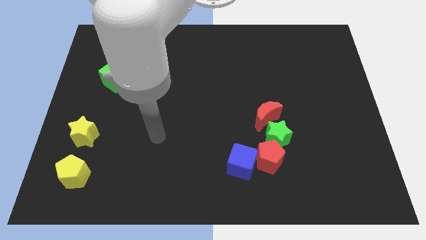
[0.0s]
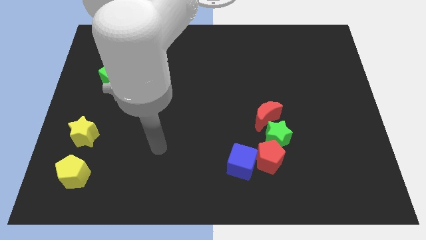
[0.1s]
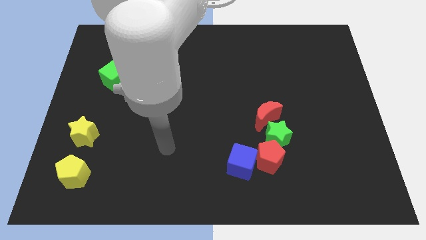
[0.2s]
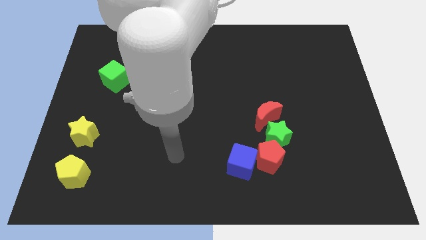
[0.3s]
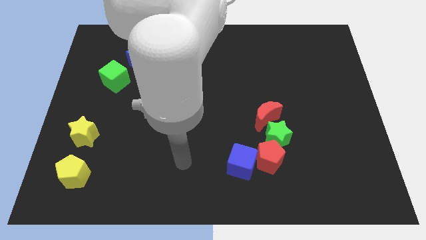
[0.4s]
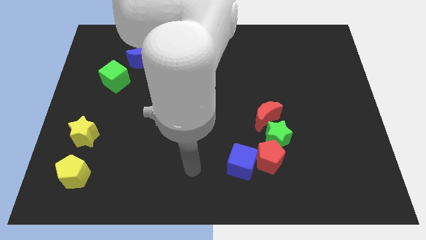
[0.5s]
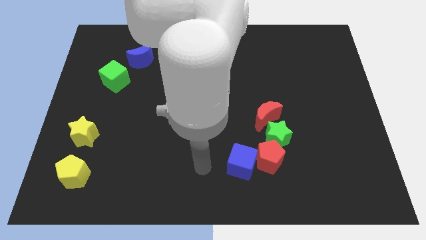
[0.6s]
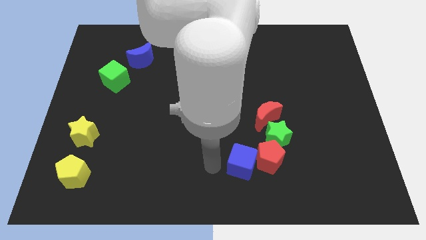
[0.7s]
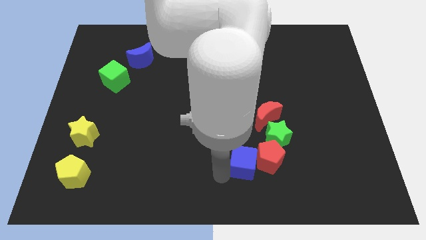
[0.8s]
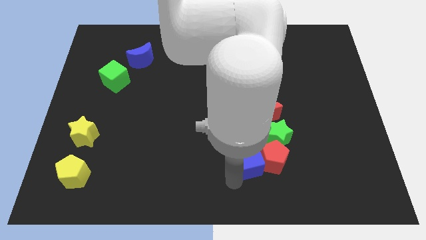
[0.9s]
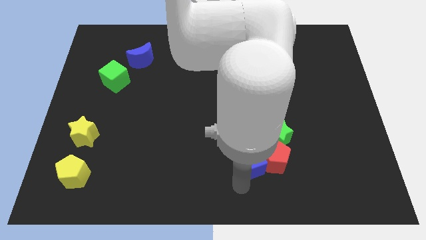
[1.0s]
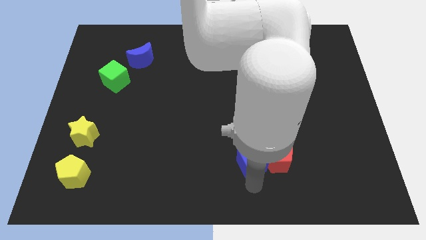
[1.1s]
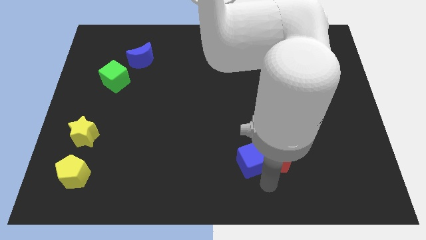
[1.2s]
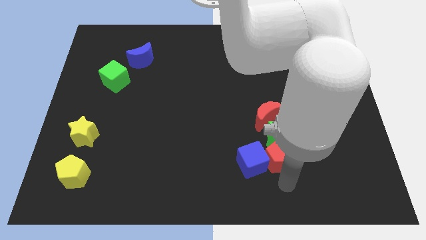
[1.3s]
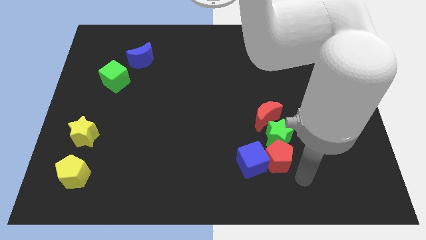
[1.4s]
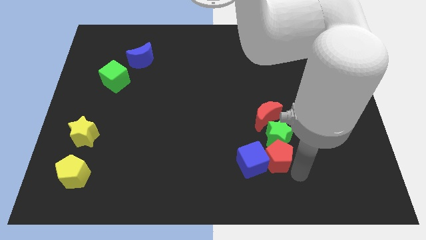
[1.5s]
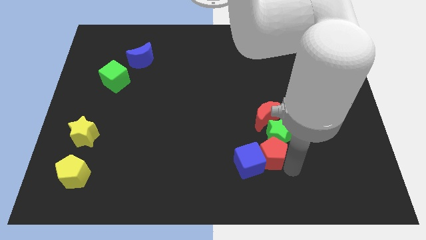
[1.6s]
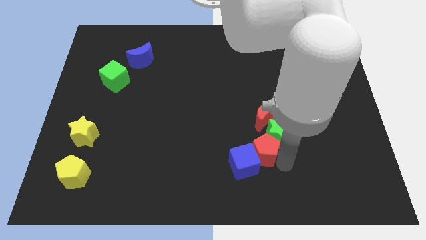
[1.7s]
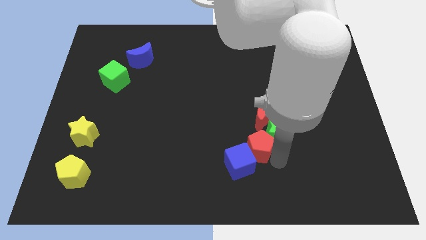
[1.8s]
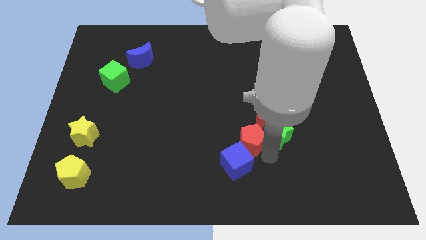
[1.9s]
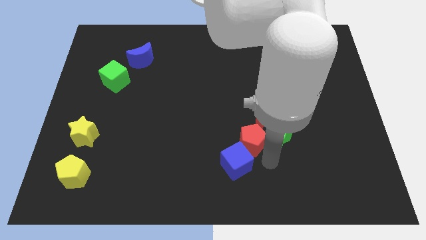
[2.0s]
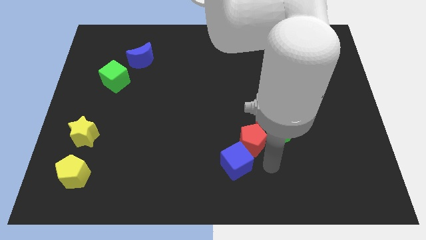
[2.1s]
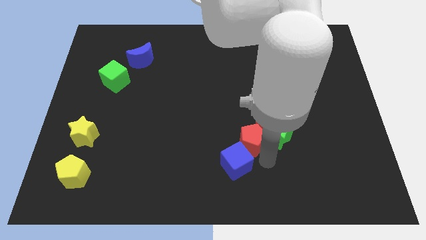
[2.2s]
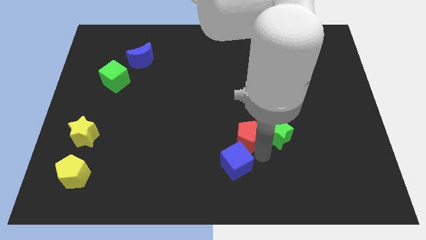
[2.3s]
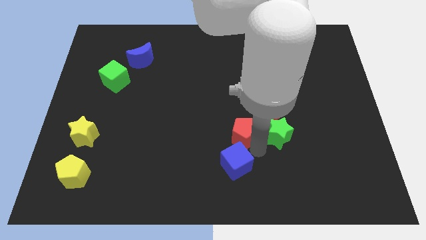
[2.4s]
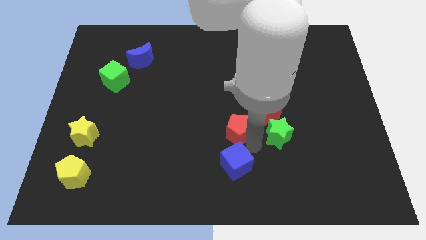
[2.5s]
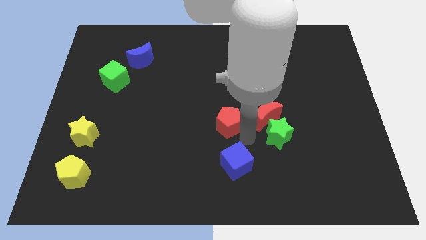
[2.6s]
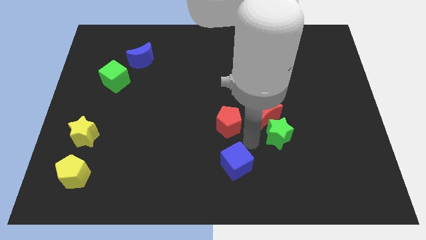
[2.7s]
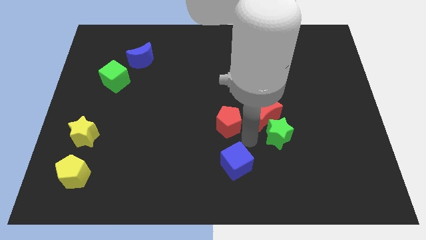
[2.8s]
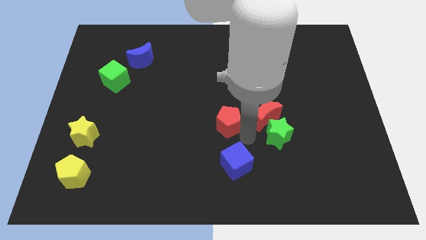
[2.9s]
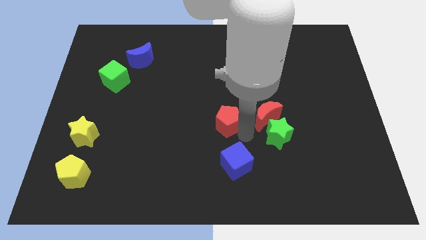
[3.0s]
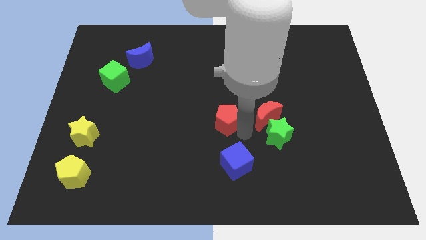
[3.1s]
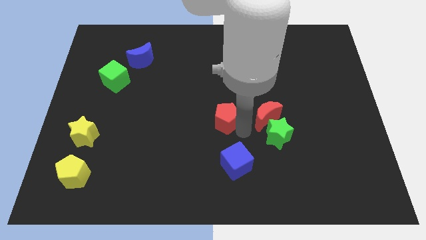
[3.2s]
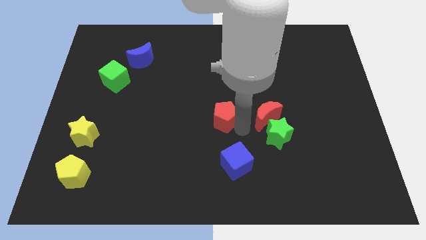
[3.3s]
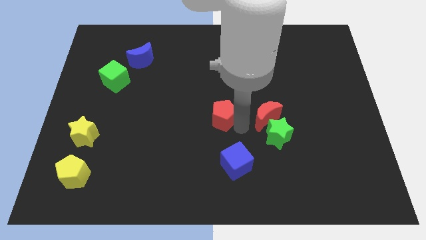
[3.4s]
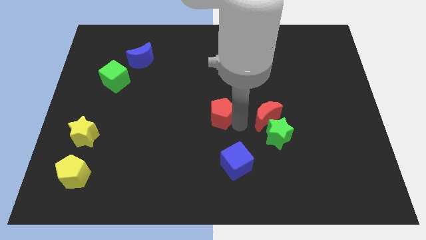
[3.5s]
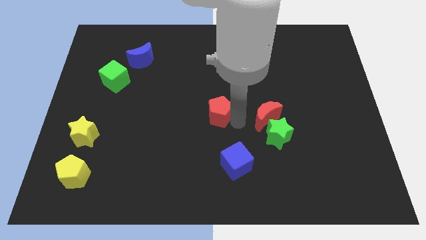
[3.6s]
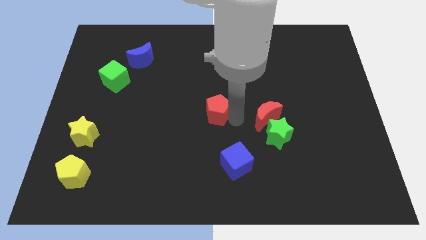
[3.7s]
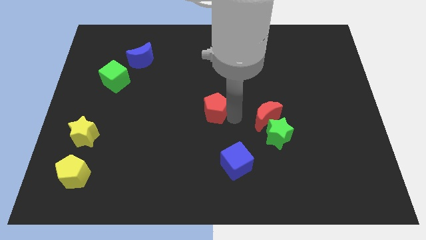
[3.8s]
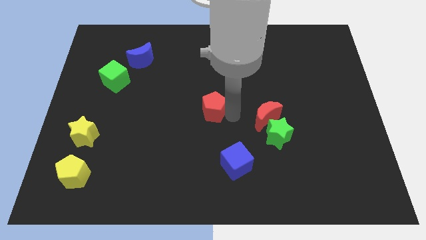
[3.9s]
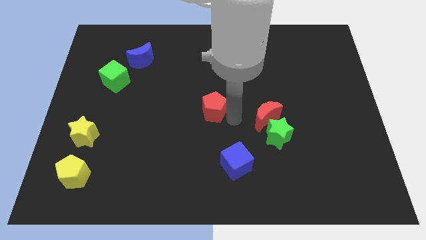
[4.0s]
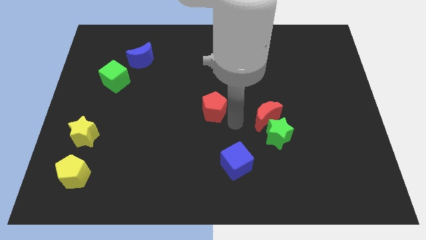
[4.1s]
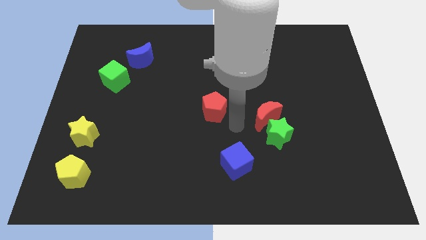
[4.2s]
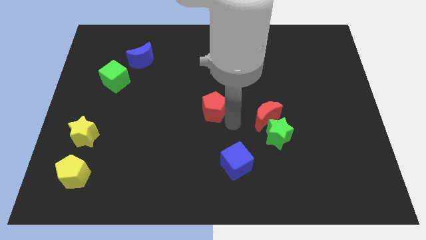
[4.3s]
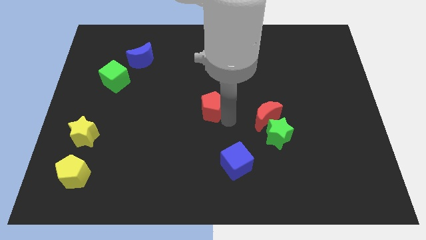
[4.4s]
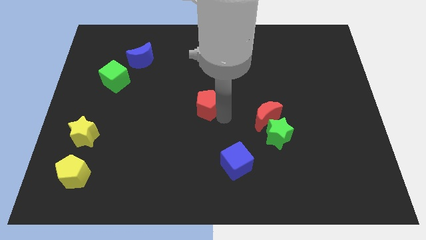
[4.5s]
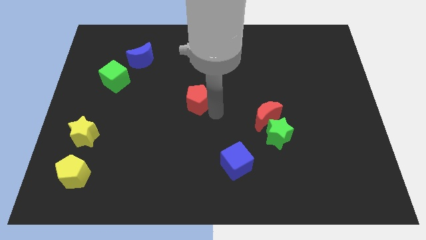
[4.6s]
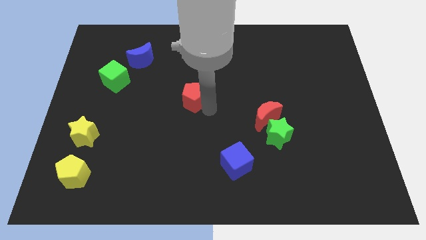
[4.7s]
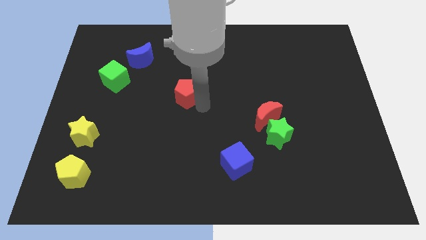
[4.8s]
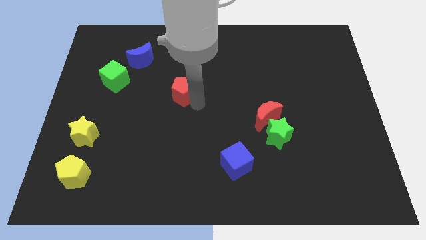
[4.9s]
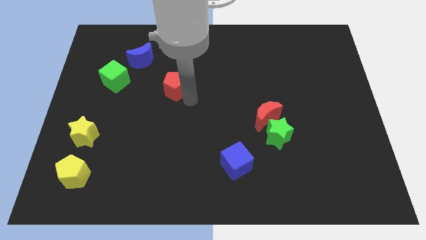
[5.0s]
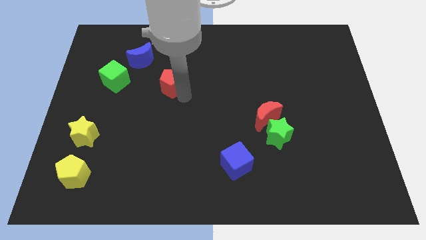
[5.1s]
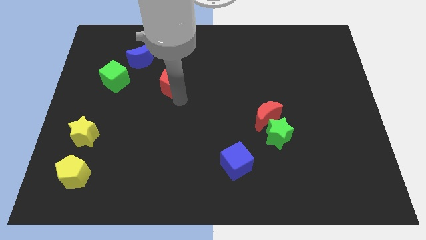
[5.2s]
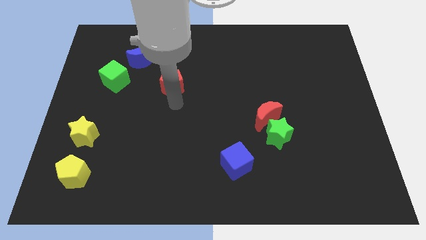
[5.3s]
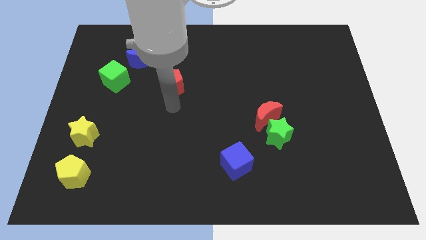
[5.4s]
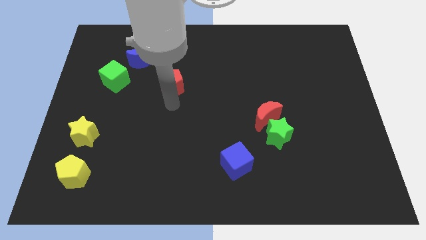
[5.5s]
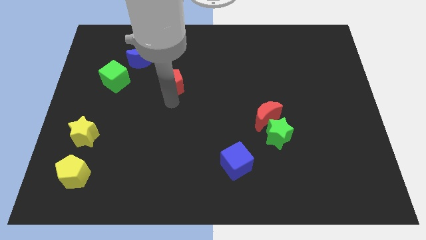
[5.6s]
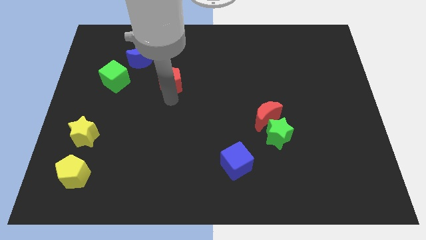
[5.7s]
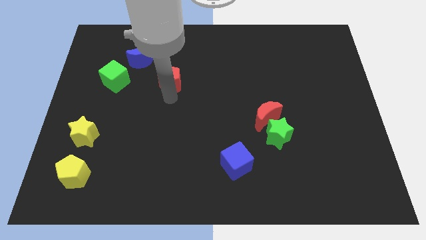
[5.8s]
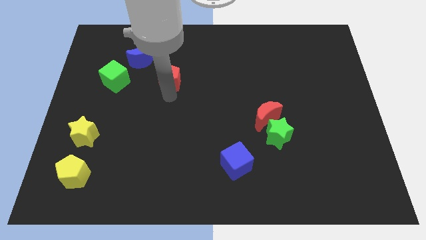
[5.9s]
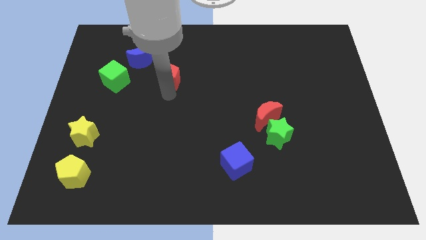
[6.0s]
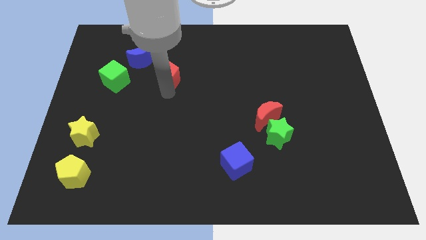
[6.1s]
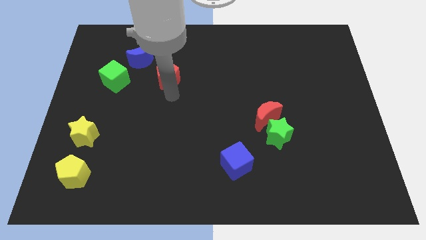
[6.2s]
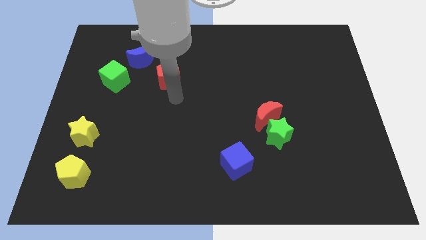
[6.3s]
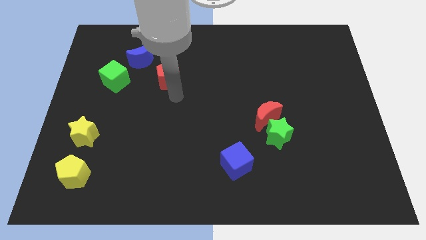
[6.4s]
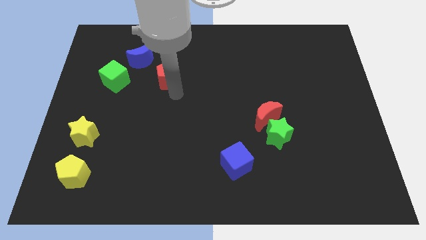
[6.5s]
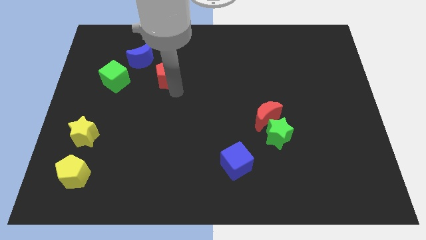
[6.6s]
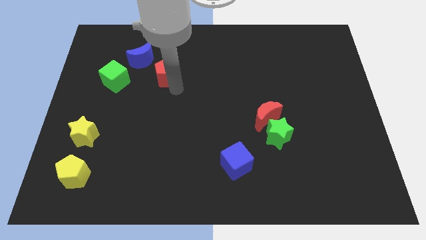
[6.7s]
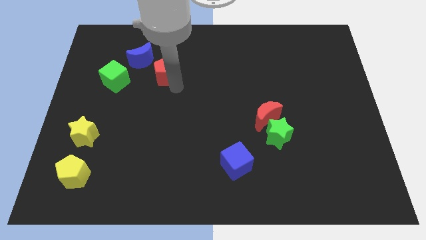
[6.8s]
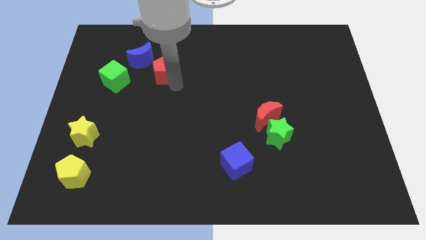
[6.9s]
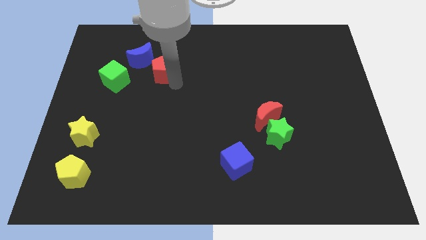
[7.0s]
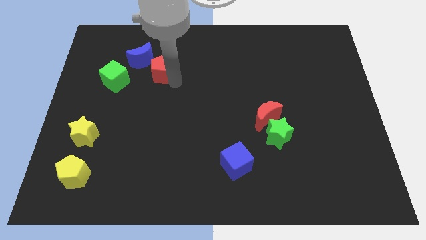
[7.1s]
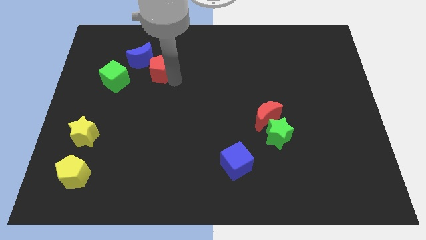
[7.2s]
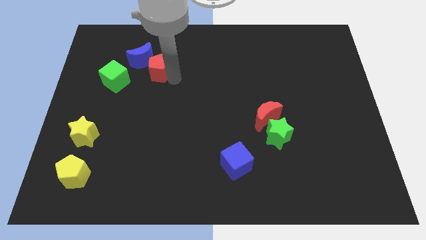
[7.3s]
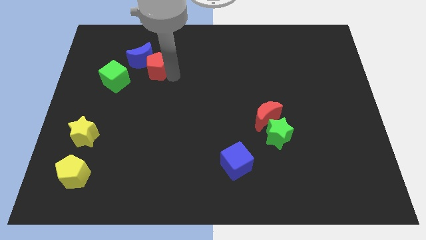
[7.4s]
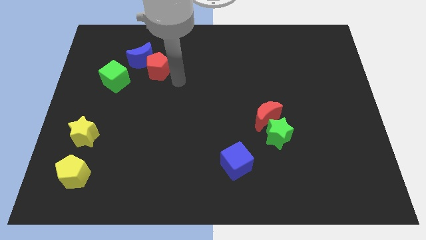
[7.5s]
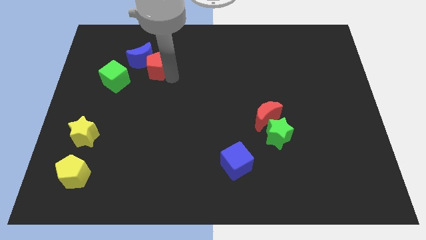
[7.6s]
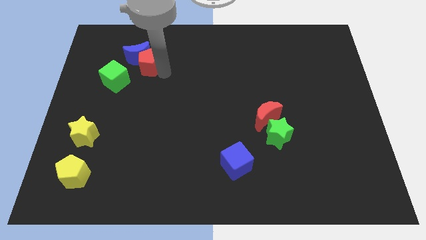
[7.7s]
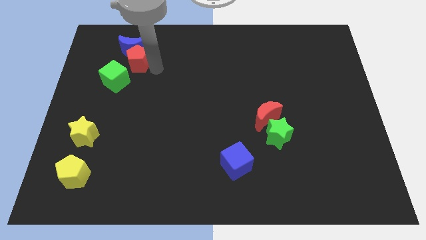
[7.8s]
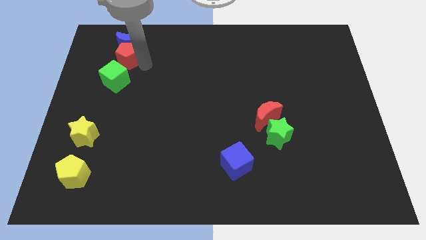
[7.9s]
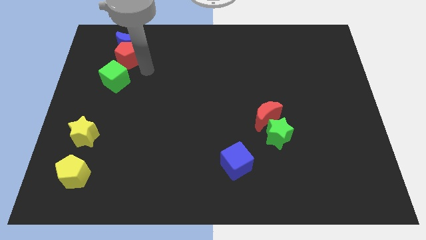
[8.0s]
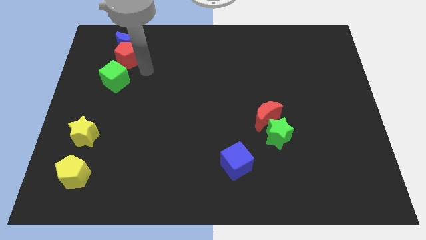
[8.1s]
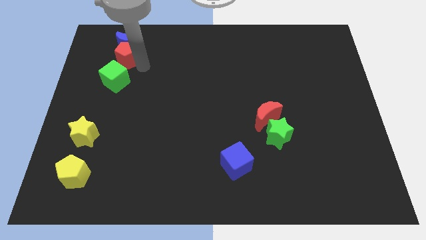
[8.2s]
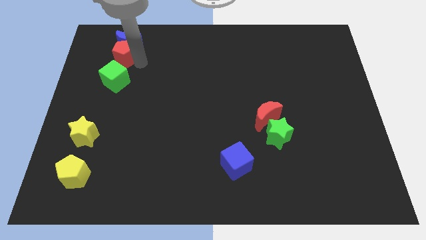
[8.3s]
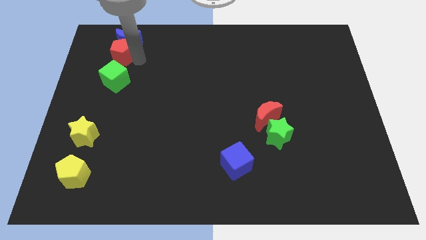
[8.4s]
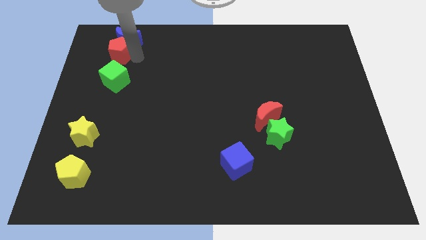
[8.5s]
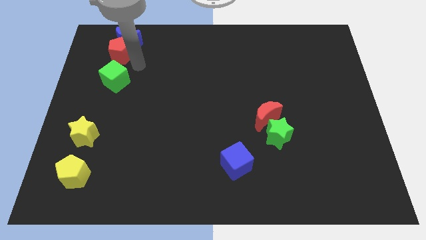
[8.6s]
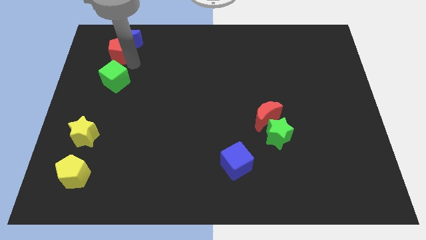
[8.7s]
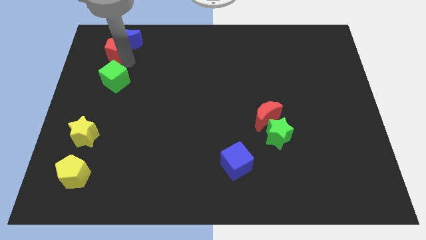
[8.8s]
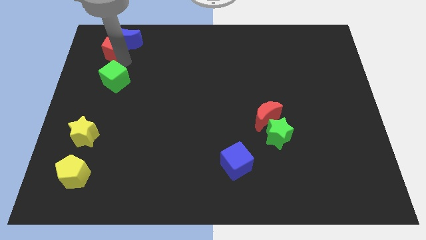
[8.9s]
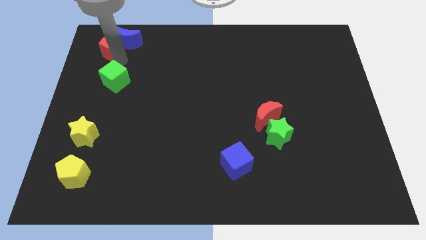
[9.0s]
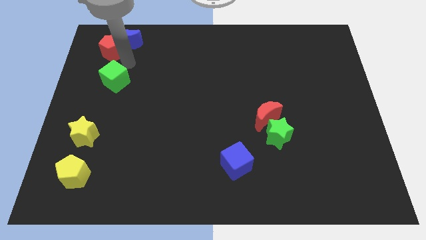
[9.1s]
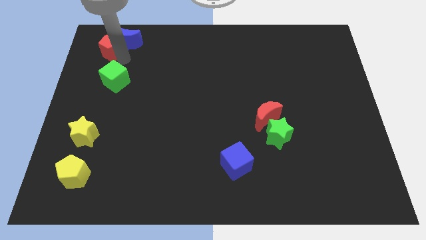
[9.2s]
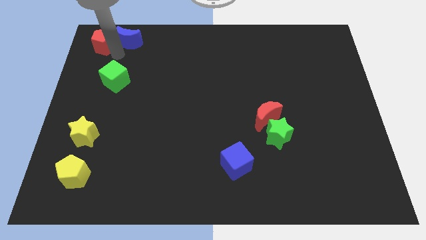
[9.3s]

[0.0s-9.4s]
put the red pentagon to the top left corner
